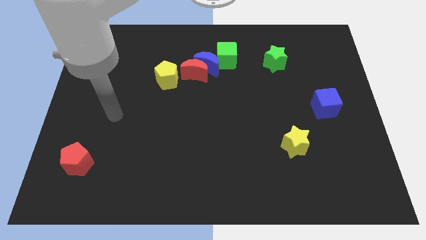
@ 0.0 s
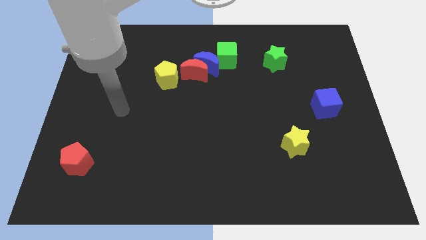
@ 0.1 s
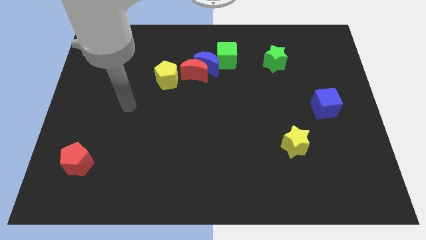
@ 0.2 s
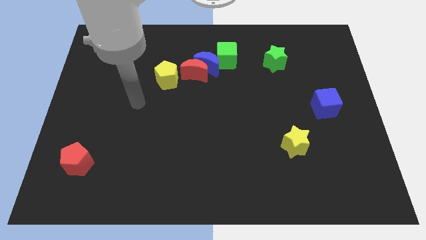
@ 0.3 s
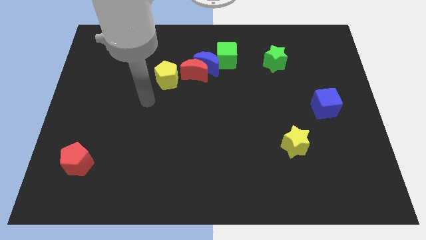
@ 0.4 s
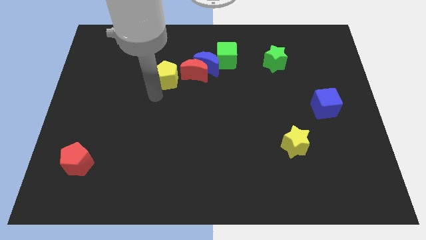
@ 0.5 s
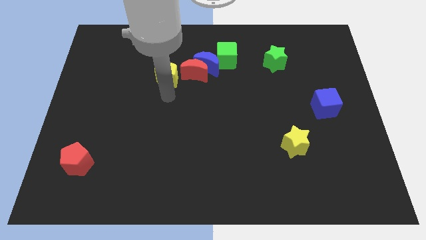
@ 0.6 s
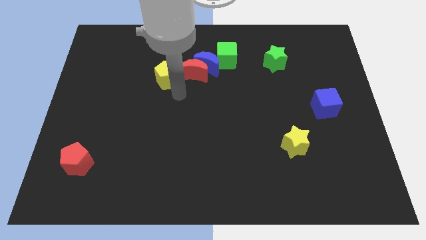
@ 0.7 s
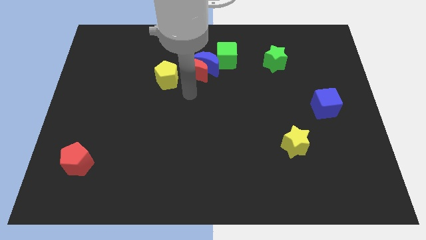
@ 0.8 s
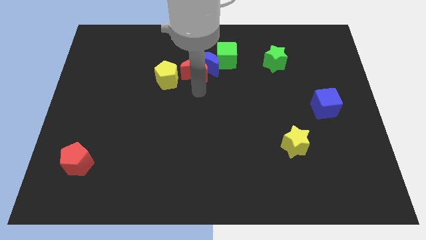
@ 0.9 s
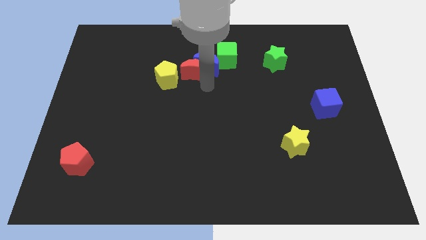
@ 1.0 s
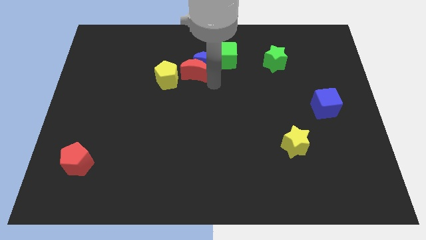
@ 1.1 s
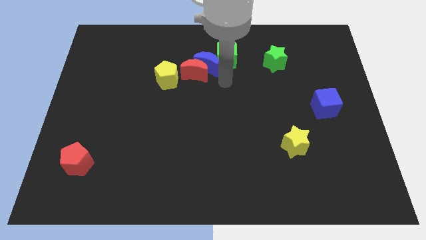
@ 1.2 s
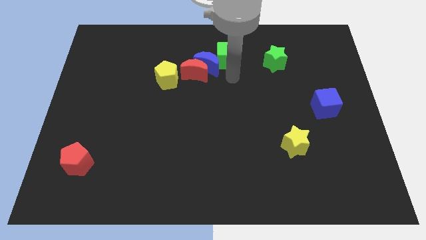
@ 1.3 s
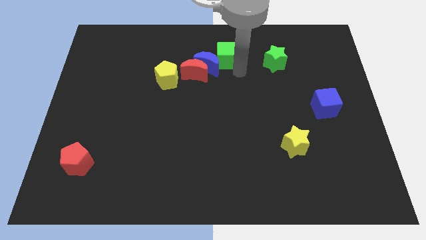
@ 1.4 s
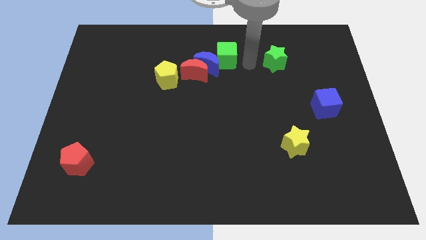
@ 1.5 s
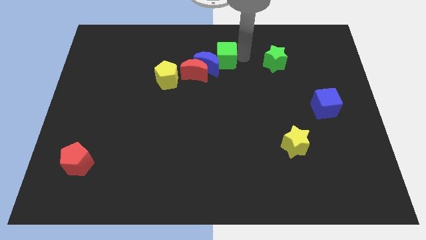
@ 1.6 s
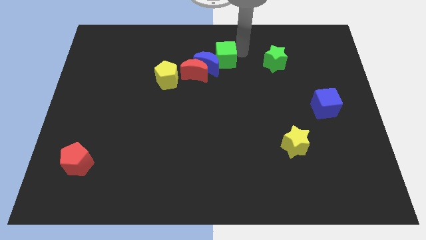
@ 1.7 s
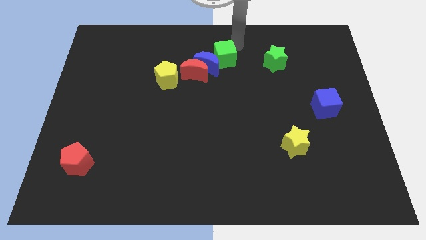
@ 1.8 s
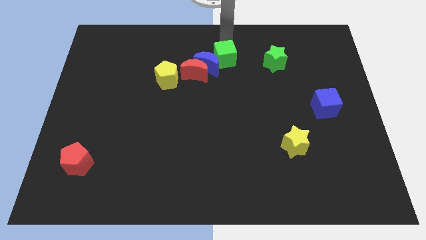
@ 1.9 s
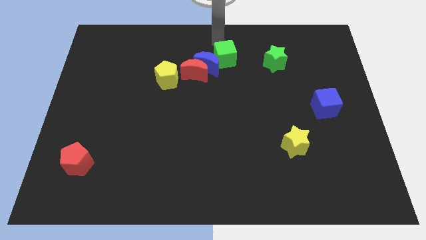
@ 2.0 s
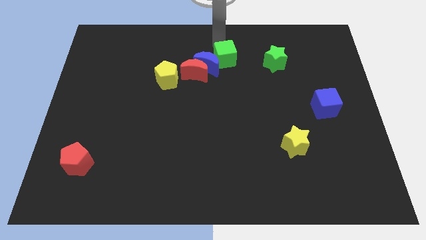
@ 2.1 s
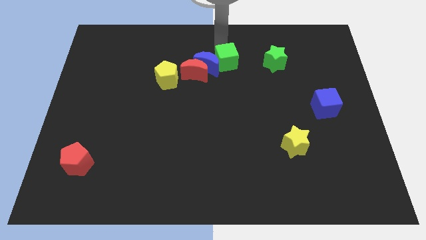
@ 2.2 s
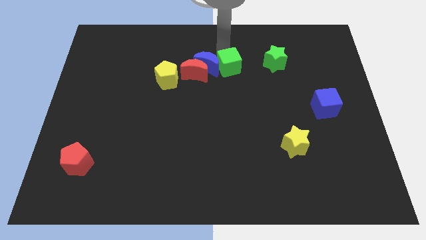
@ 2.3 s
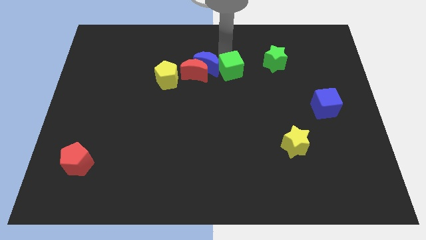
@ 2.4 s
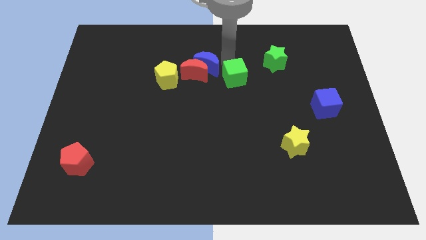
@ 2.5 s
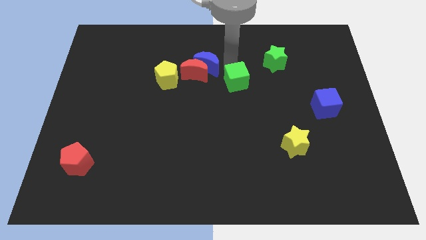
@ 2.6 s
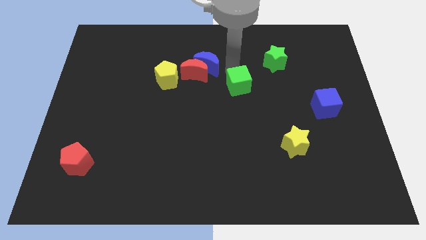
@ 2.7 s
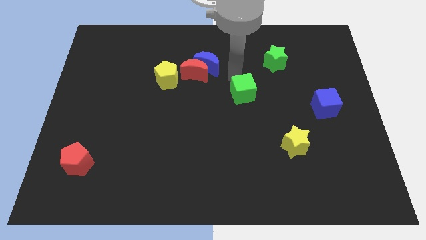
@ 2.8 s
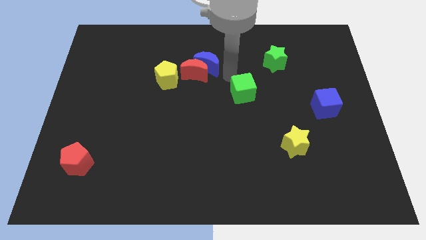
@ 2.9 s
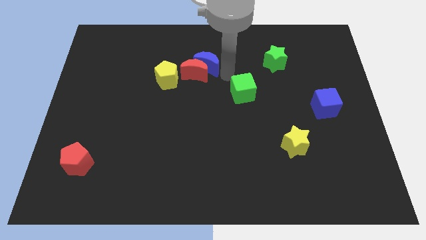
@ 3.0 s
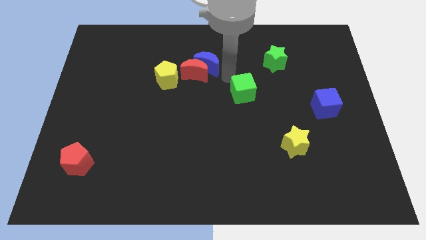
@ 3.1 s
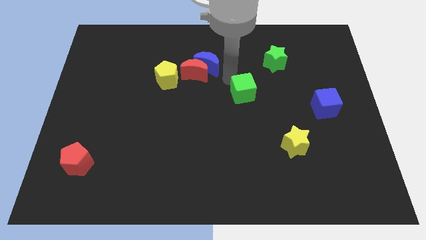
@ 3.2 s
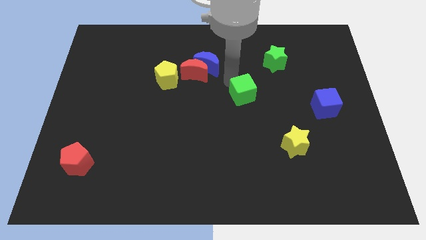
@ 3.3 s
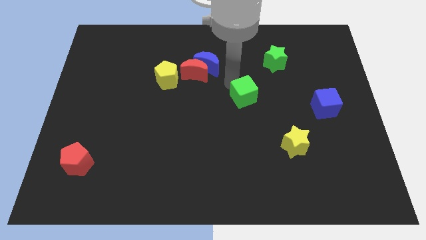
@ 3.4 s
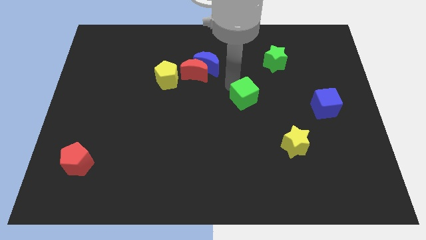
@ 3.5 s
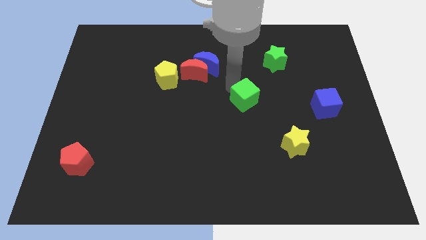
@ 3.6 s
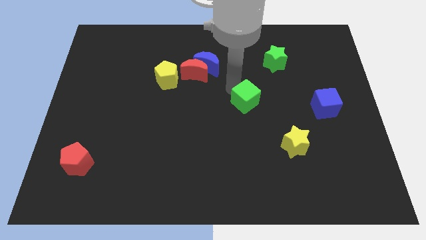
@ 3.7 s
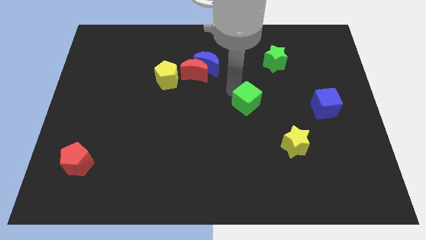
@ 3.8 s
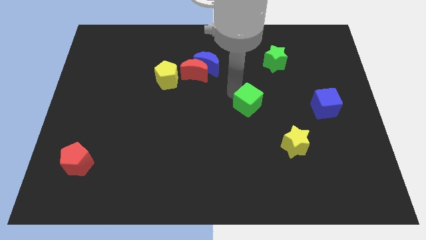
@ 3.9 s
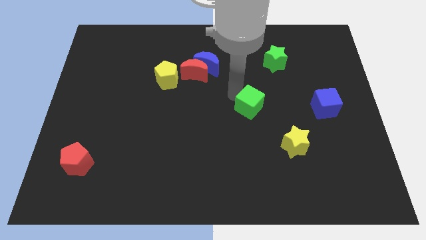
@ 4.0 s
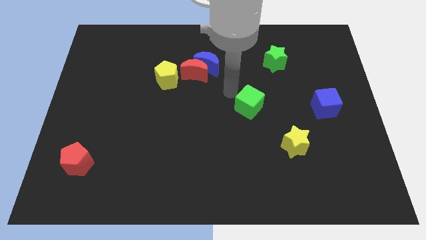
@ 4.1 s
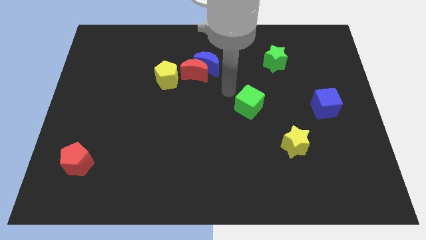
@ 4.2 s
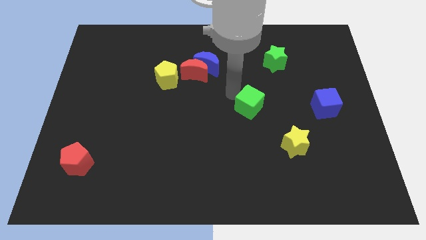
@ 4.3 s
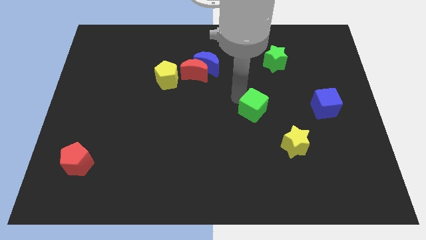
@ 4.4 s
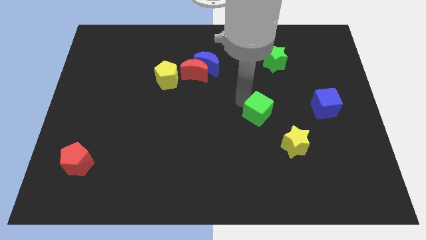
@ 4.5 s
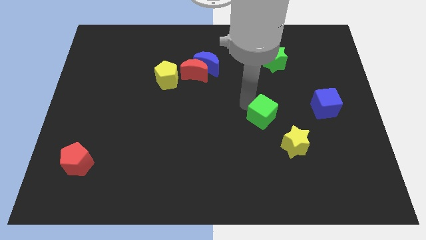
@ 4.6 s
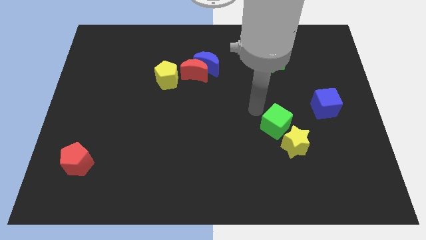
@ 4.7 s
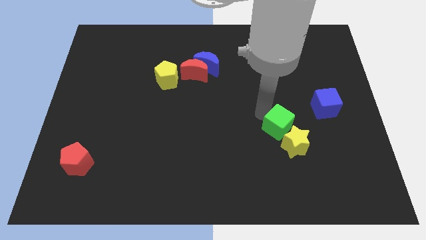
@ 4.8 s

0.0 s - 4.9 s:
push the green cube close to the yellow star

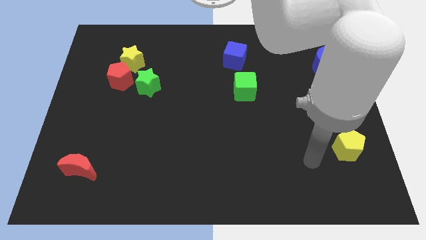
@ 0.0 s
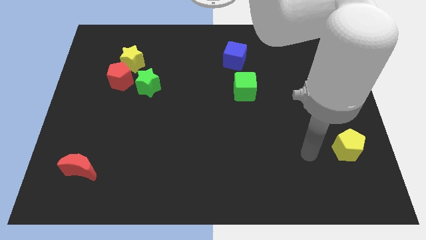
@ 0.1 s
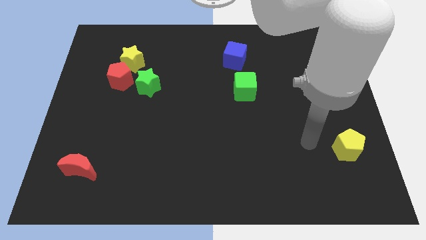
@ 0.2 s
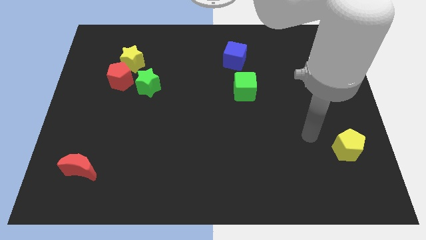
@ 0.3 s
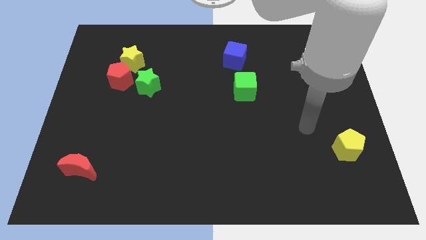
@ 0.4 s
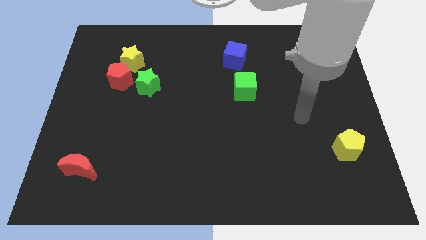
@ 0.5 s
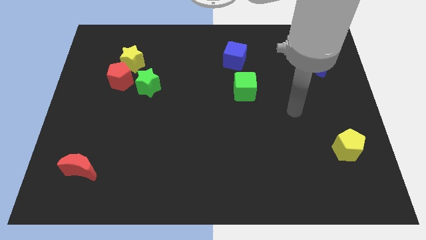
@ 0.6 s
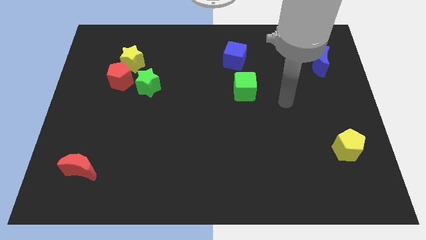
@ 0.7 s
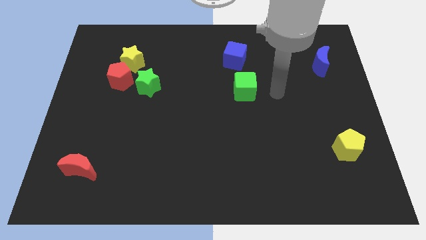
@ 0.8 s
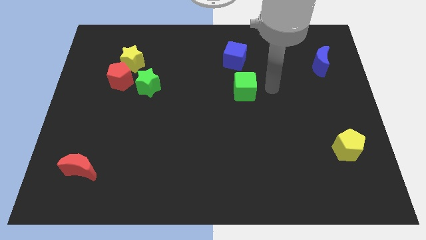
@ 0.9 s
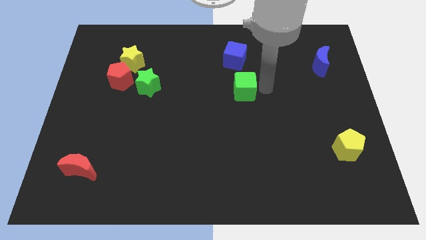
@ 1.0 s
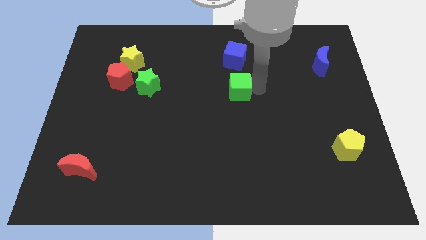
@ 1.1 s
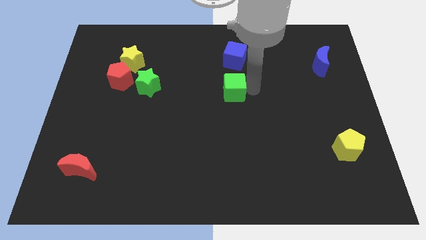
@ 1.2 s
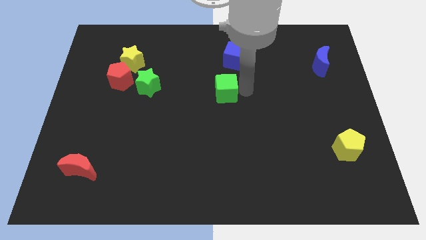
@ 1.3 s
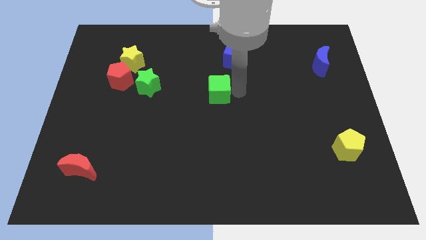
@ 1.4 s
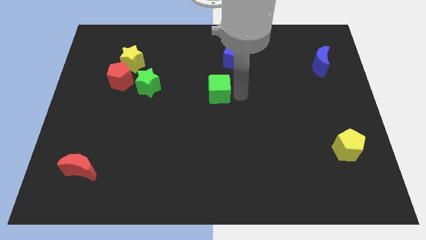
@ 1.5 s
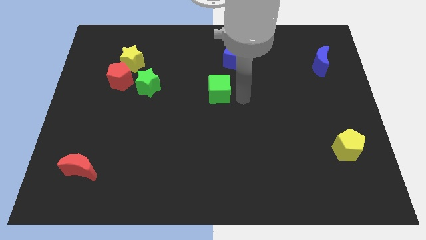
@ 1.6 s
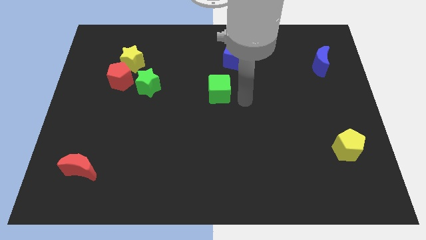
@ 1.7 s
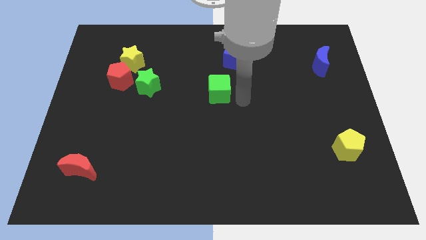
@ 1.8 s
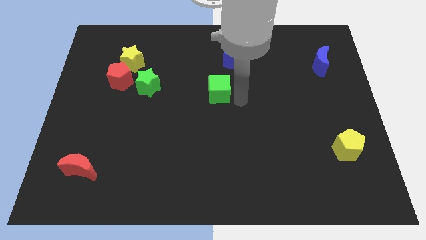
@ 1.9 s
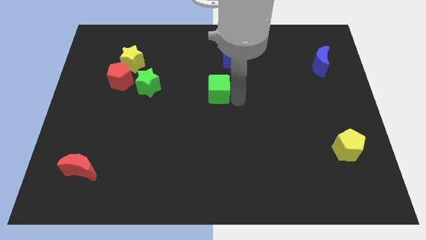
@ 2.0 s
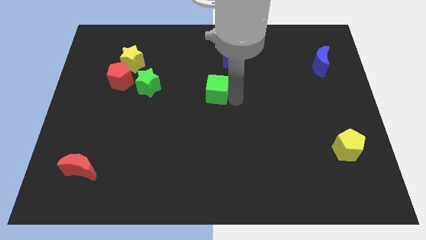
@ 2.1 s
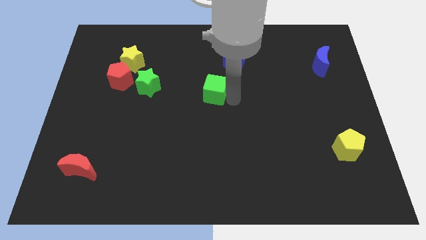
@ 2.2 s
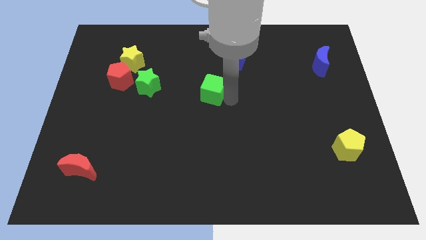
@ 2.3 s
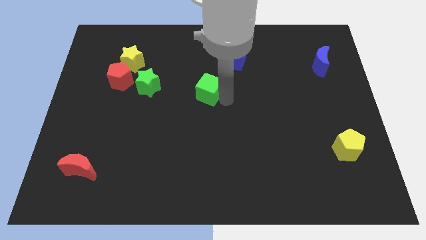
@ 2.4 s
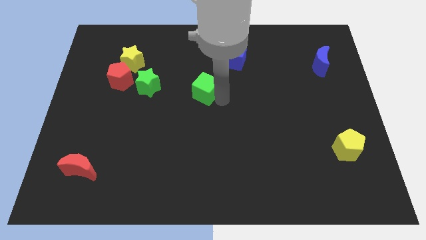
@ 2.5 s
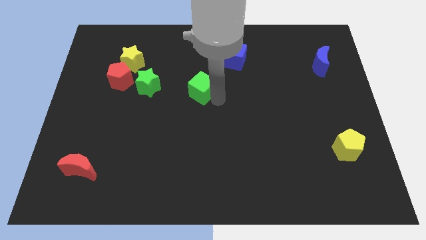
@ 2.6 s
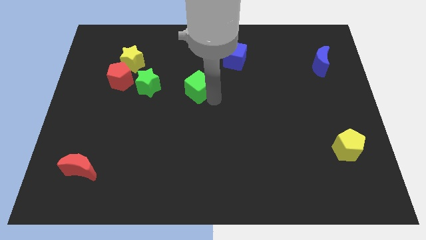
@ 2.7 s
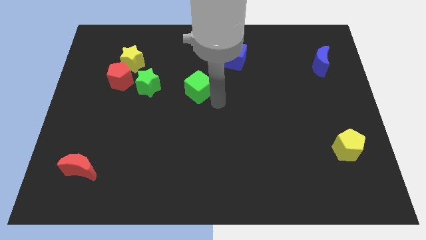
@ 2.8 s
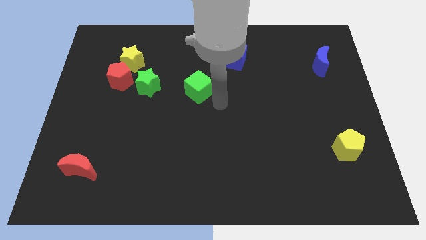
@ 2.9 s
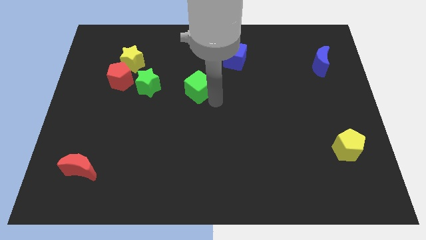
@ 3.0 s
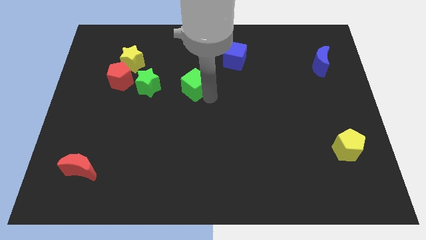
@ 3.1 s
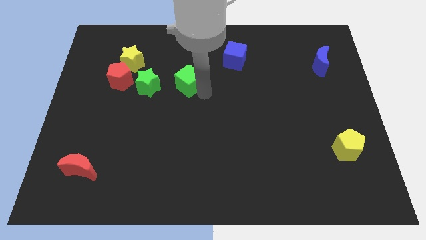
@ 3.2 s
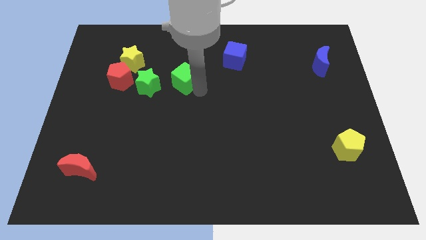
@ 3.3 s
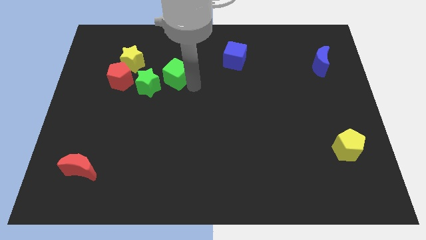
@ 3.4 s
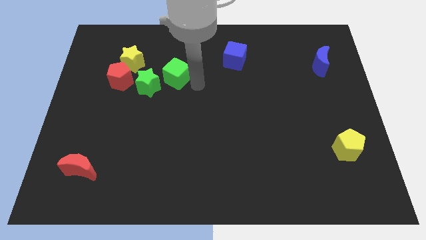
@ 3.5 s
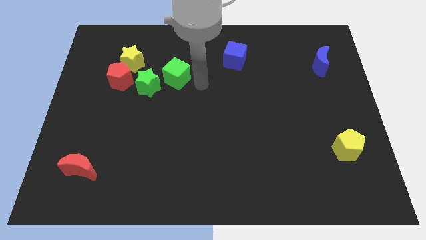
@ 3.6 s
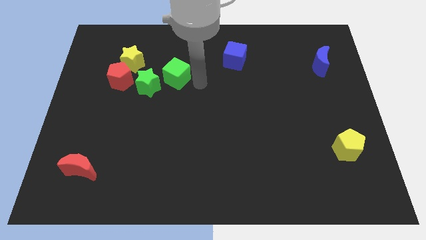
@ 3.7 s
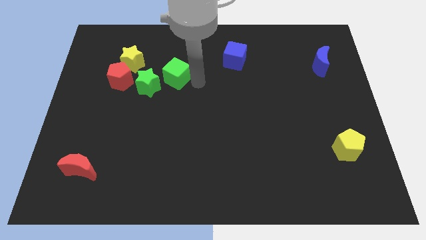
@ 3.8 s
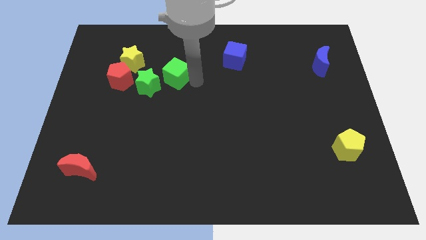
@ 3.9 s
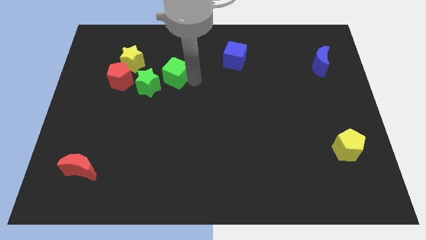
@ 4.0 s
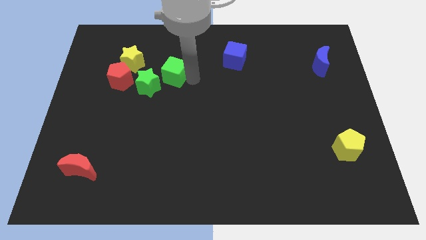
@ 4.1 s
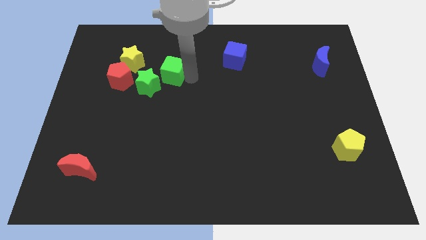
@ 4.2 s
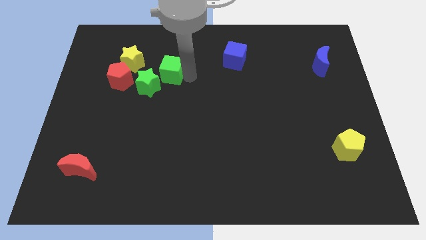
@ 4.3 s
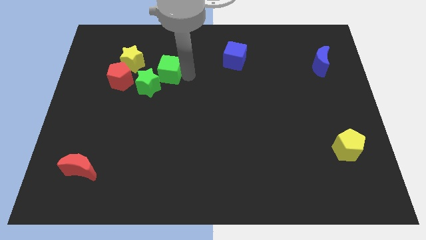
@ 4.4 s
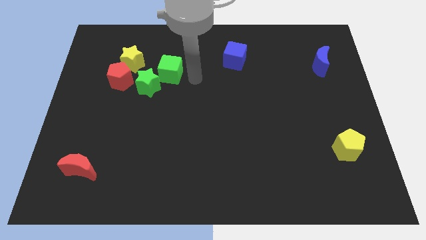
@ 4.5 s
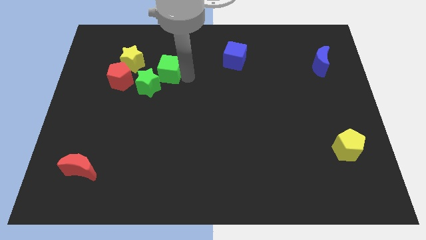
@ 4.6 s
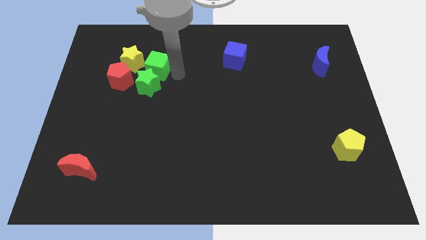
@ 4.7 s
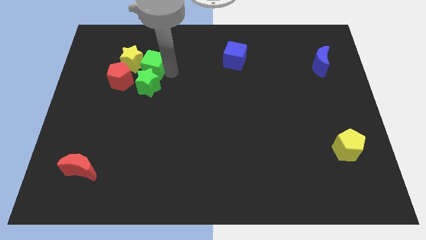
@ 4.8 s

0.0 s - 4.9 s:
slide the green cube to the yellow star
